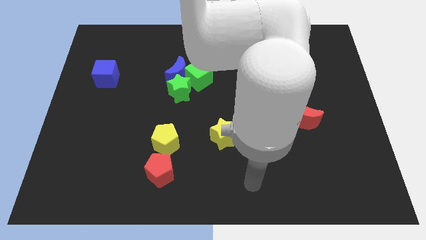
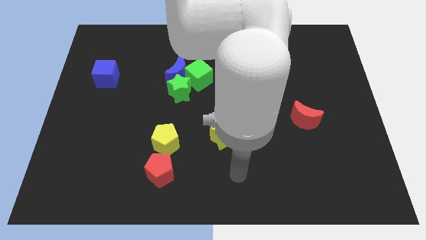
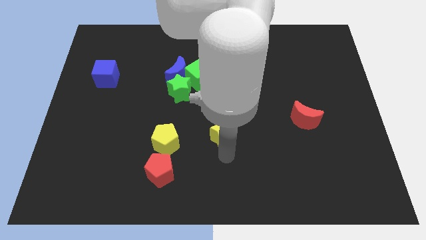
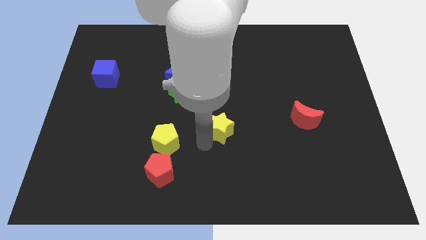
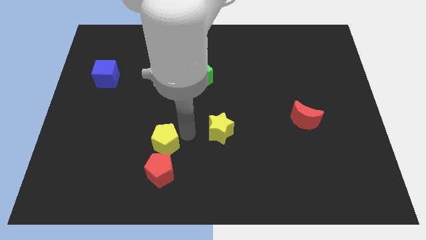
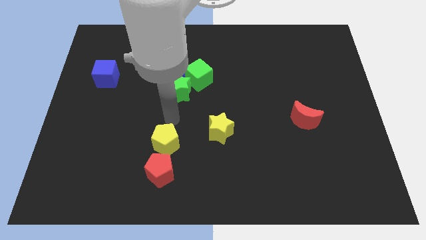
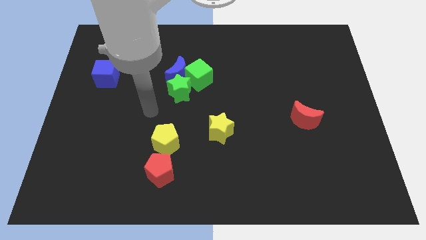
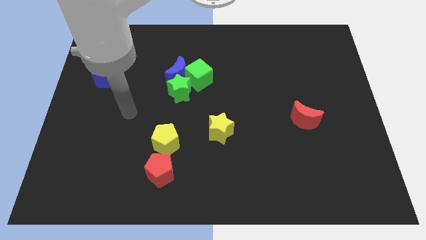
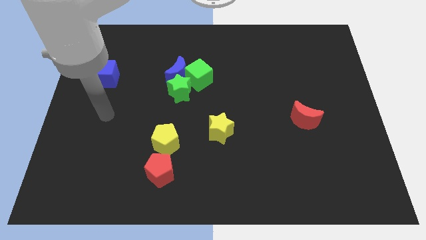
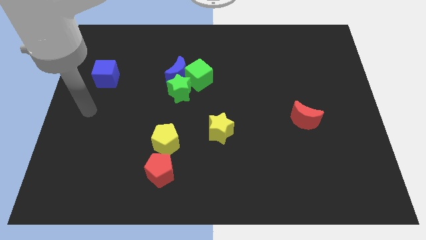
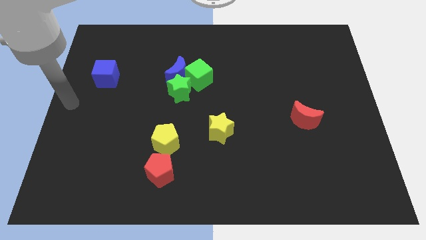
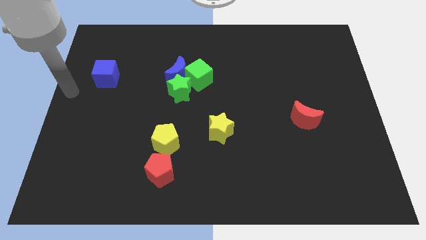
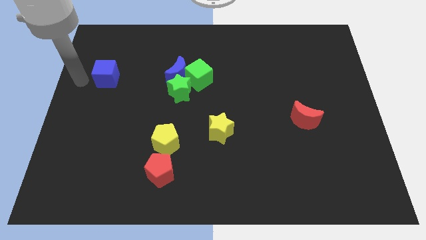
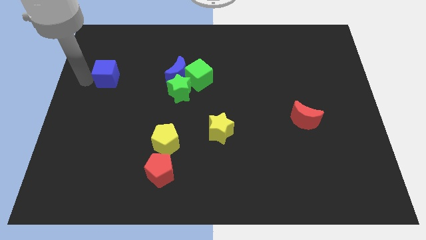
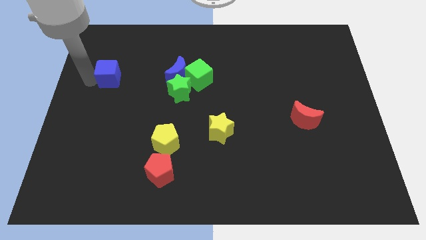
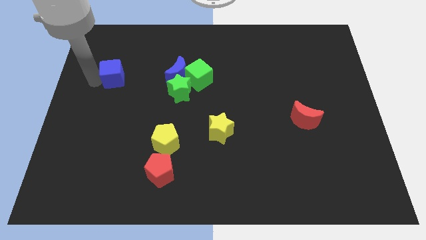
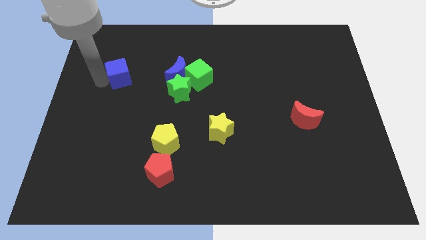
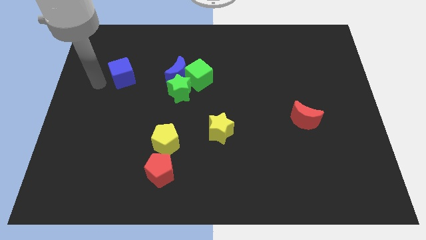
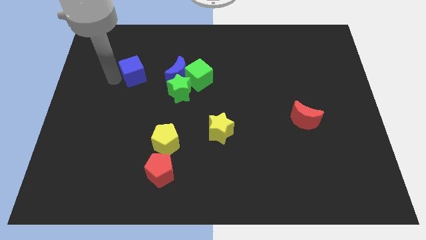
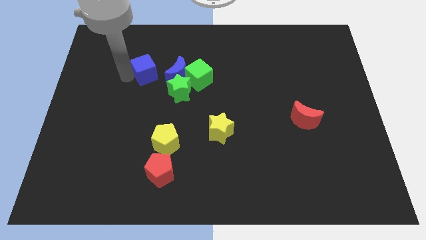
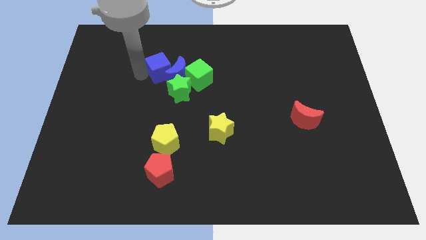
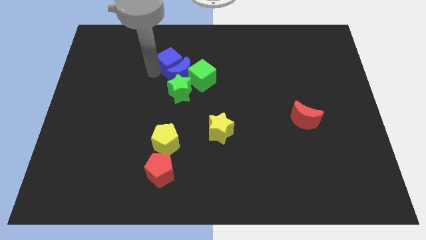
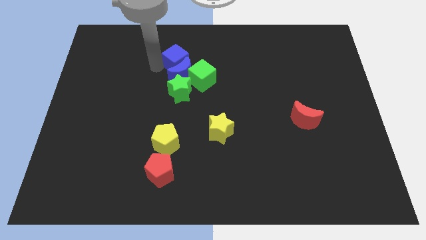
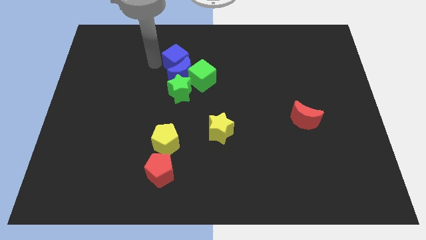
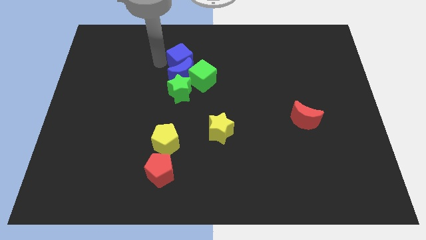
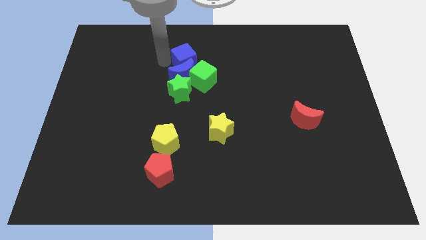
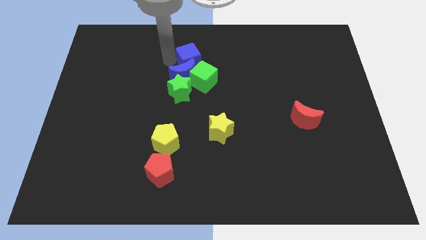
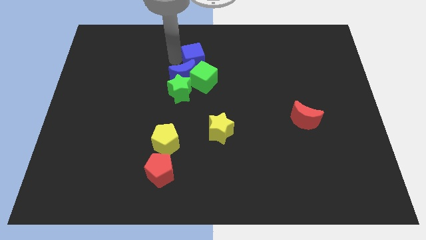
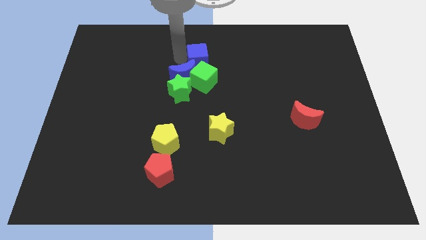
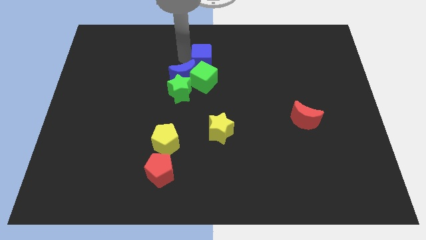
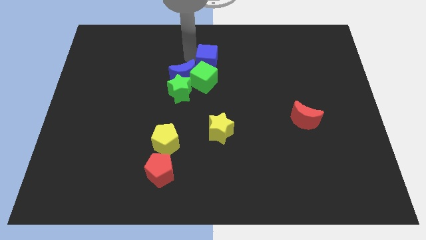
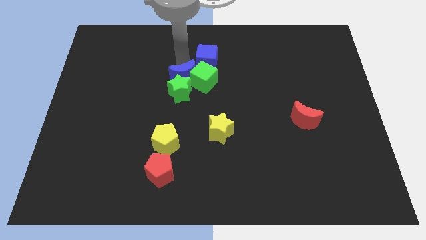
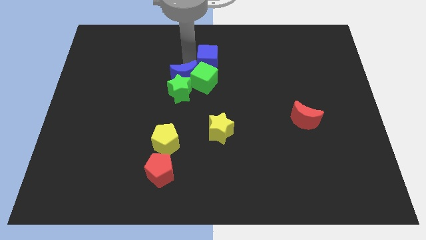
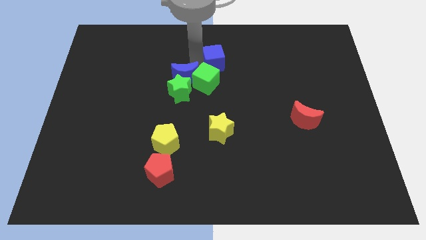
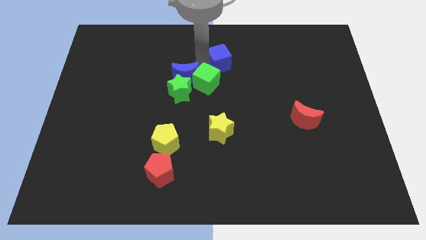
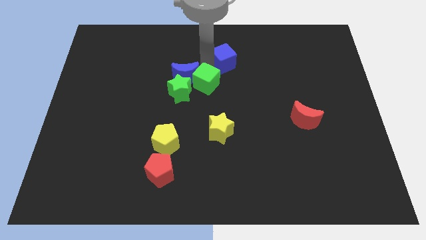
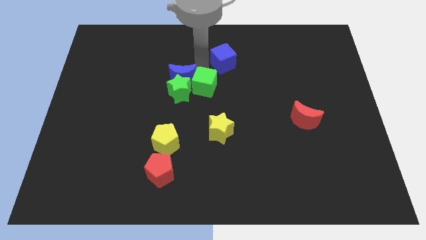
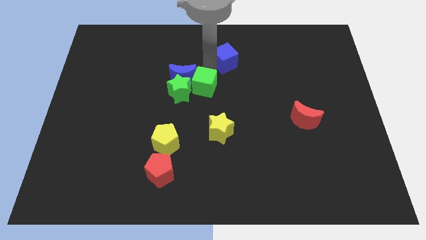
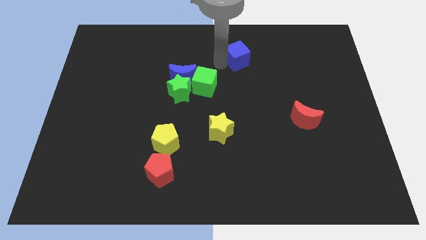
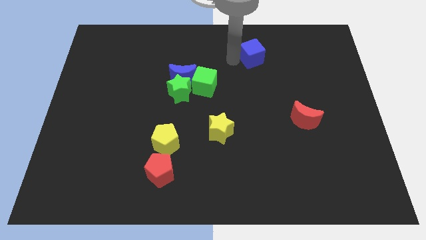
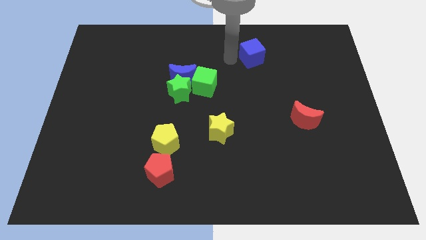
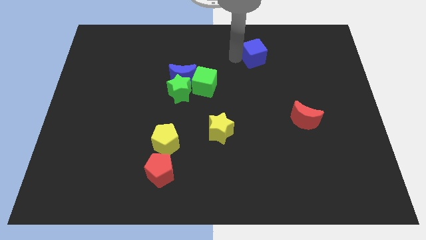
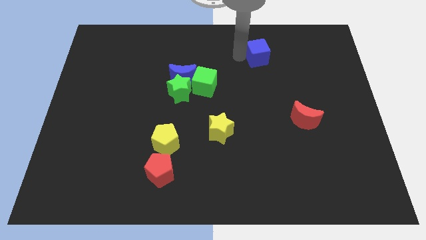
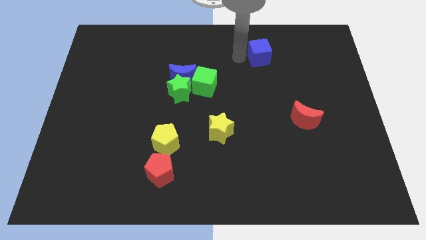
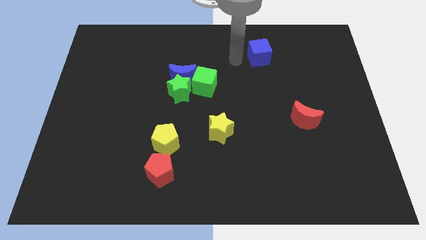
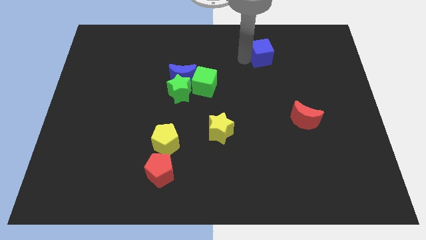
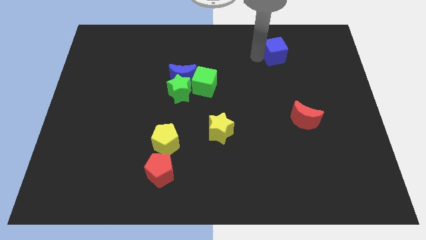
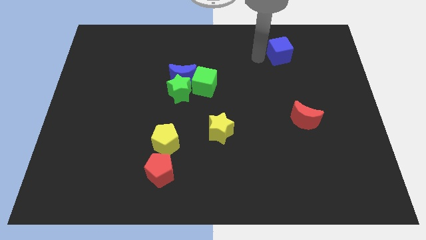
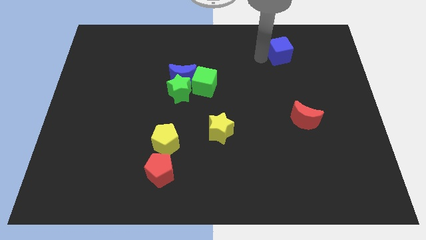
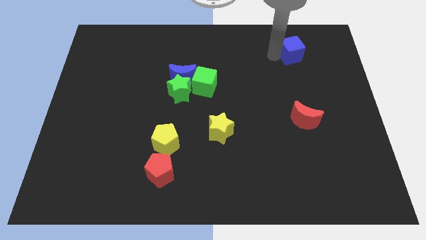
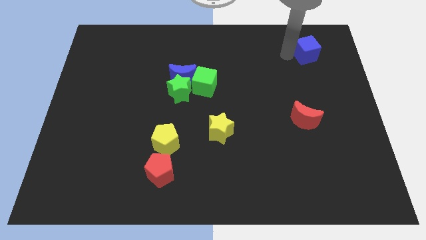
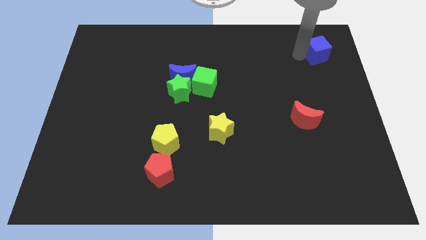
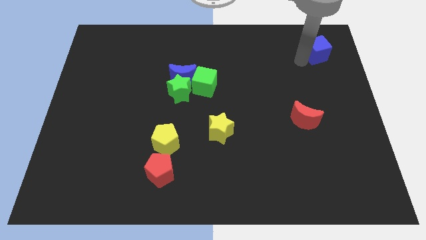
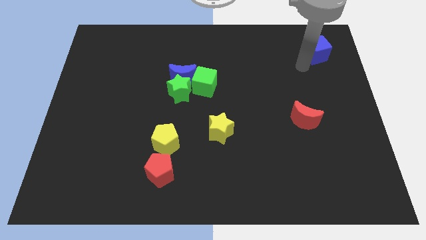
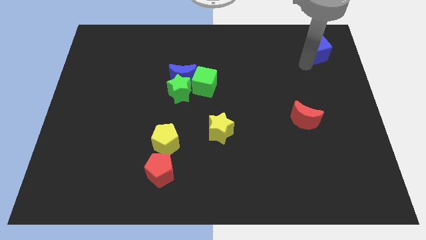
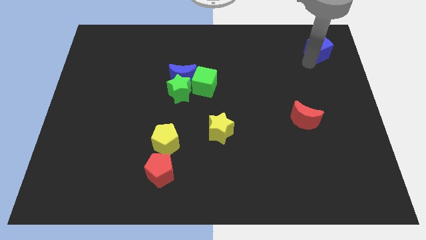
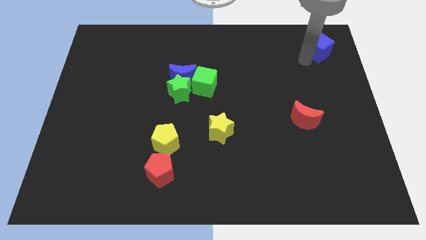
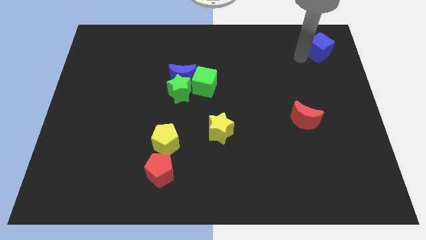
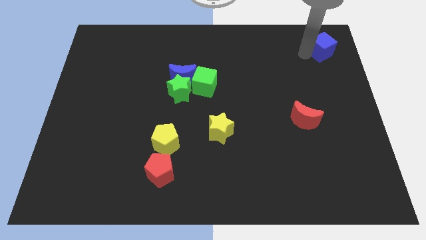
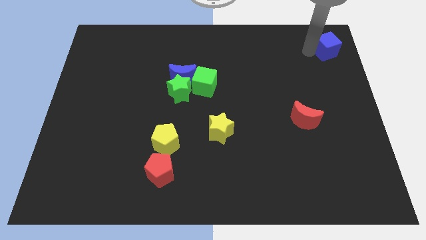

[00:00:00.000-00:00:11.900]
push the blue cube to the top right of the board
